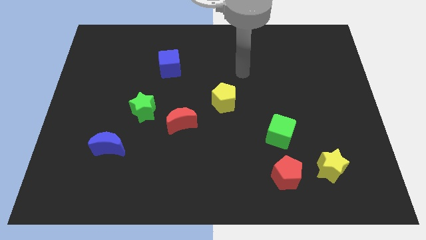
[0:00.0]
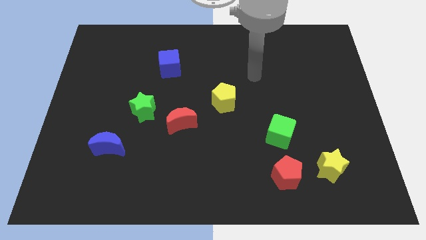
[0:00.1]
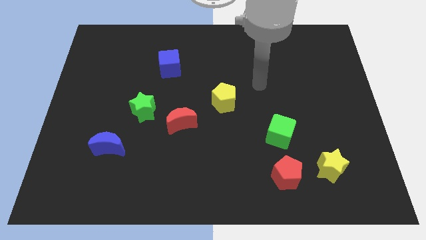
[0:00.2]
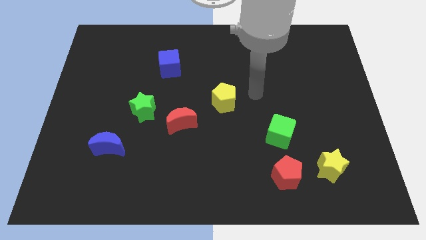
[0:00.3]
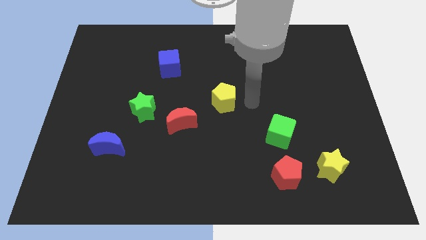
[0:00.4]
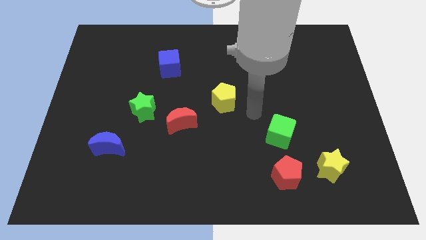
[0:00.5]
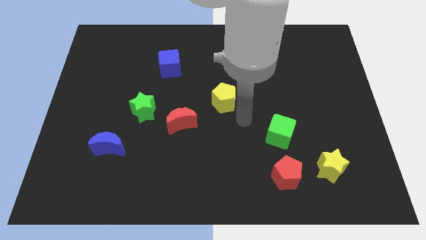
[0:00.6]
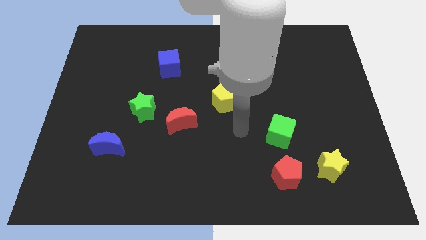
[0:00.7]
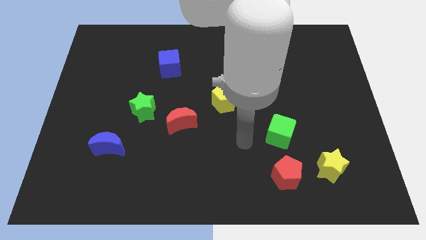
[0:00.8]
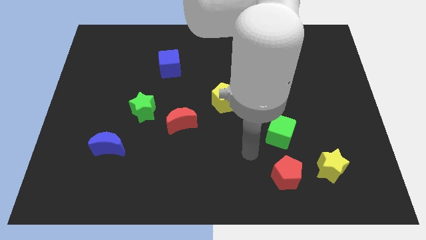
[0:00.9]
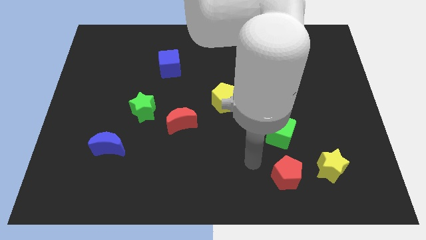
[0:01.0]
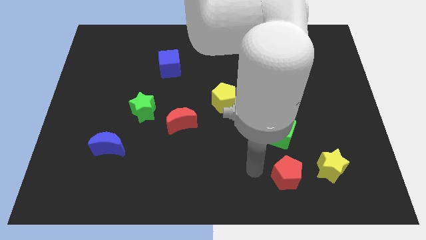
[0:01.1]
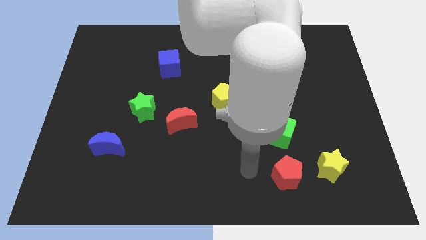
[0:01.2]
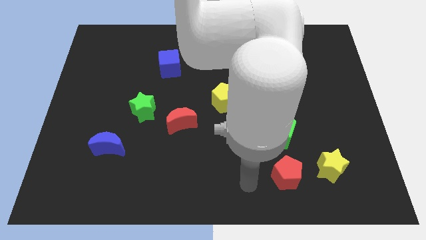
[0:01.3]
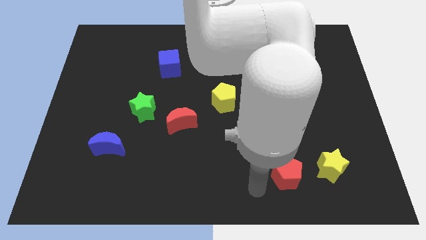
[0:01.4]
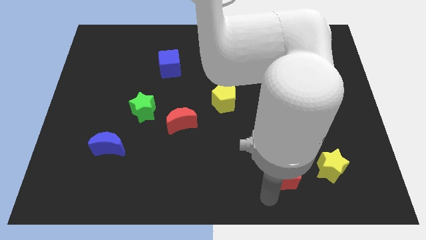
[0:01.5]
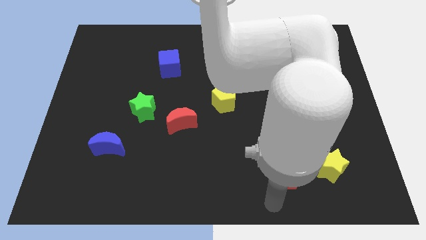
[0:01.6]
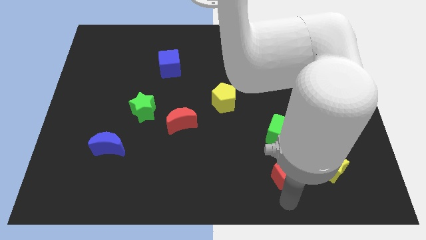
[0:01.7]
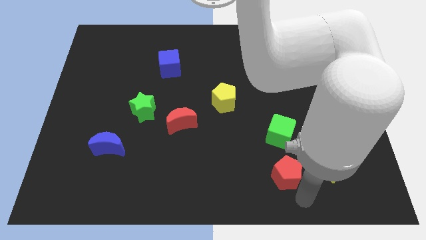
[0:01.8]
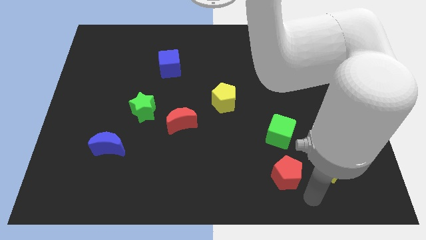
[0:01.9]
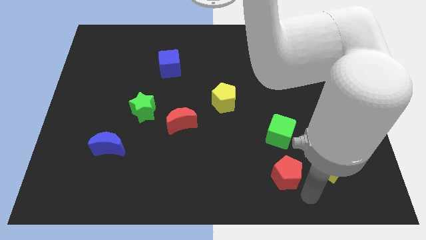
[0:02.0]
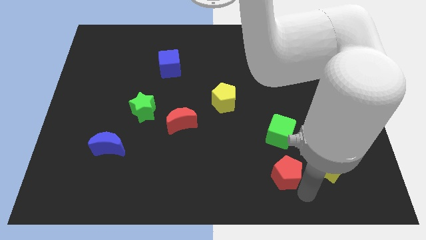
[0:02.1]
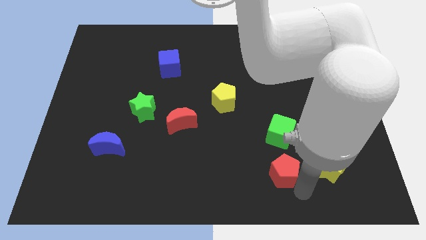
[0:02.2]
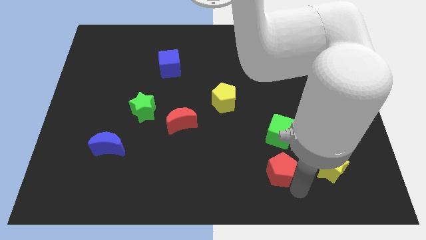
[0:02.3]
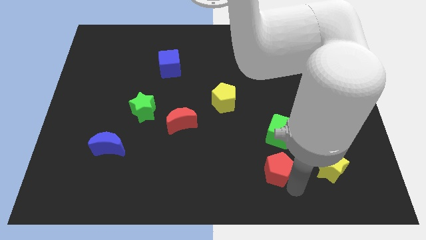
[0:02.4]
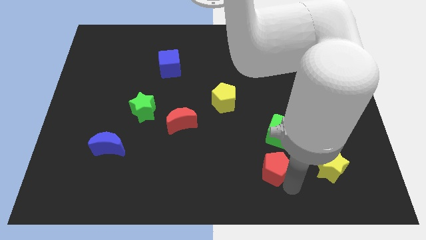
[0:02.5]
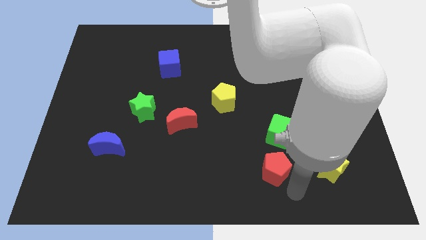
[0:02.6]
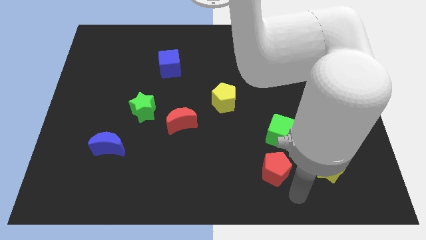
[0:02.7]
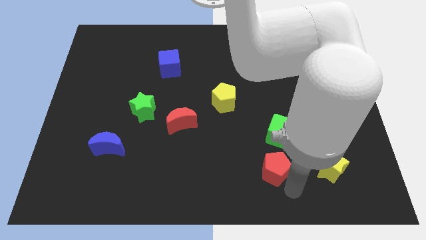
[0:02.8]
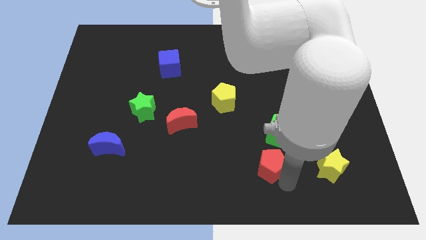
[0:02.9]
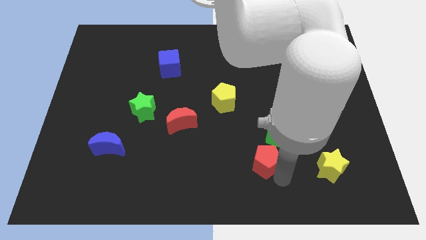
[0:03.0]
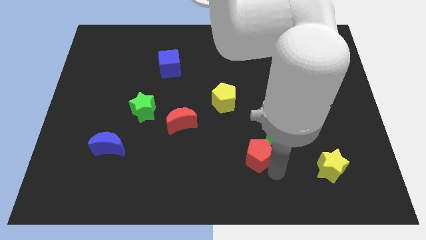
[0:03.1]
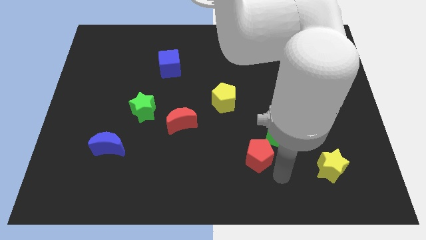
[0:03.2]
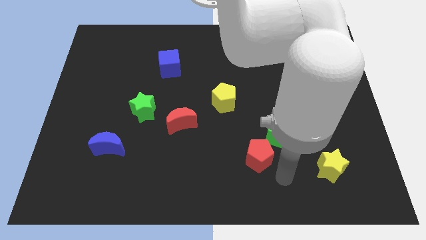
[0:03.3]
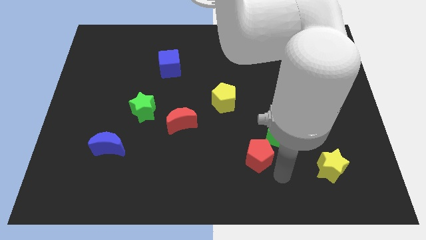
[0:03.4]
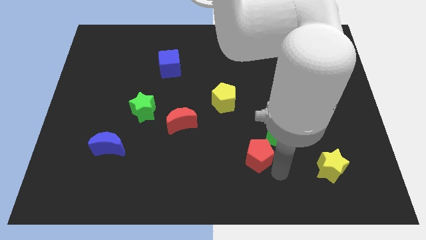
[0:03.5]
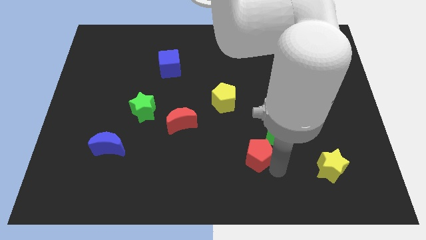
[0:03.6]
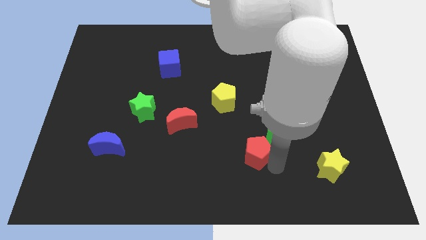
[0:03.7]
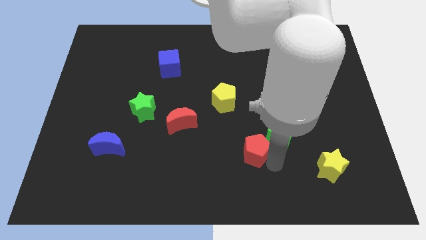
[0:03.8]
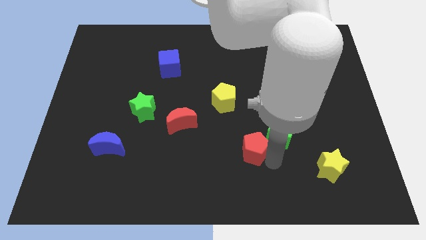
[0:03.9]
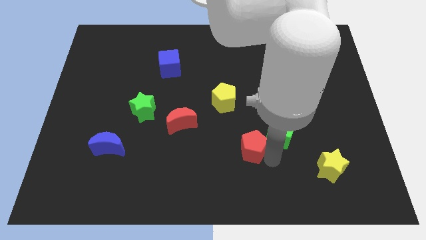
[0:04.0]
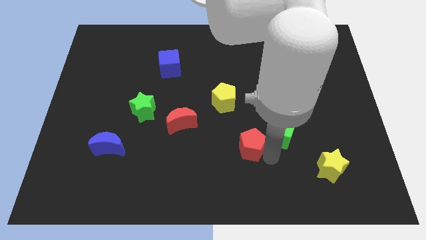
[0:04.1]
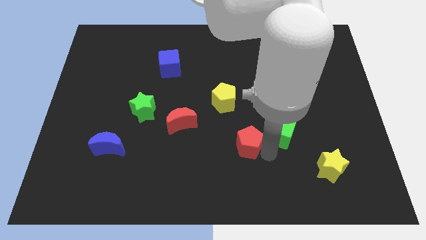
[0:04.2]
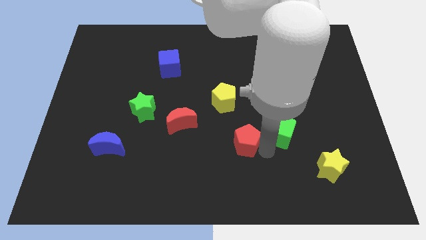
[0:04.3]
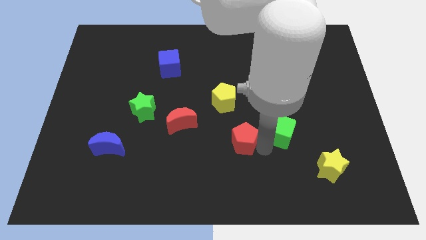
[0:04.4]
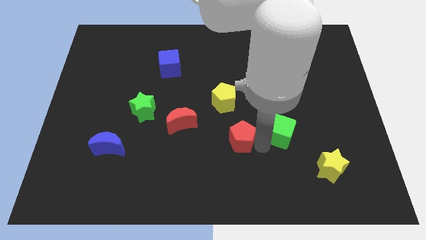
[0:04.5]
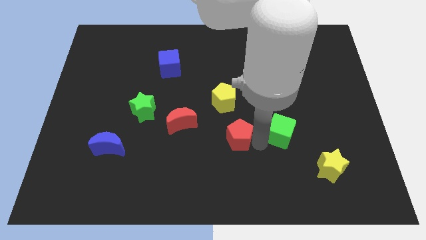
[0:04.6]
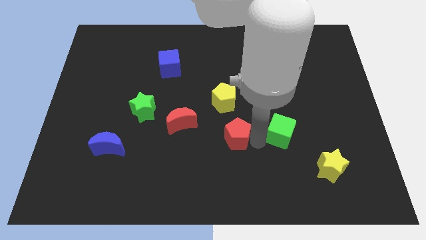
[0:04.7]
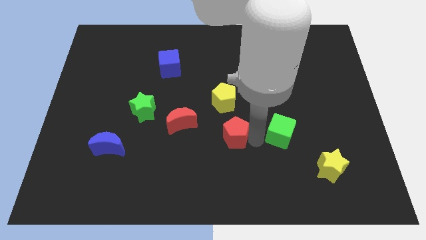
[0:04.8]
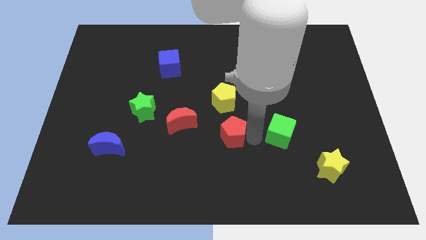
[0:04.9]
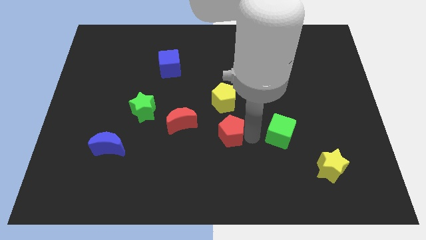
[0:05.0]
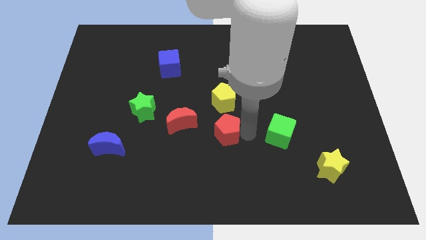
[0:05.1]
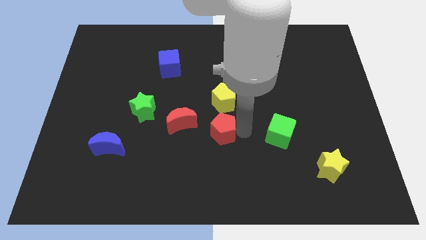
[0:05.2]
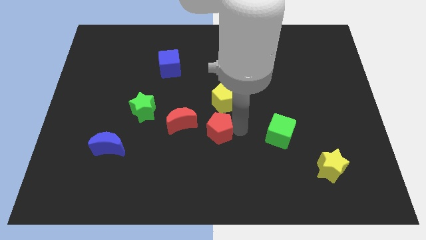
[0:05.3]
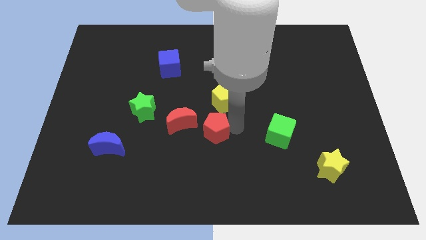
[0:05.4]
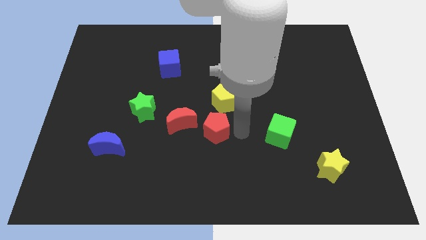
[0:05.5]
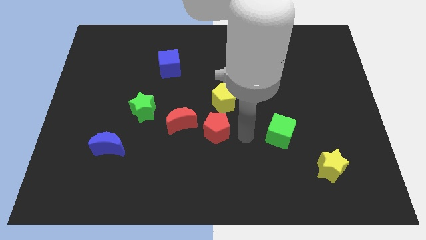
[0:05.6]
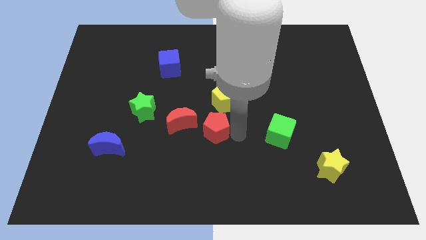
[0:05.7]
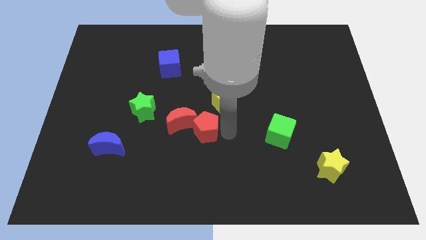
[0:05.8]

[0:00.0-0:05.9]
move the red pentagon towards the red moon
